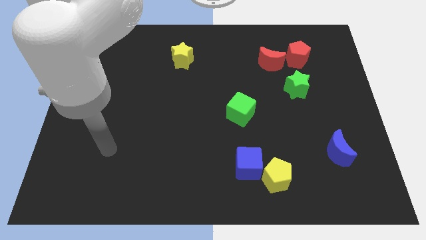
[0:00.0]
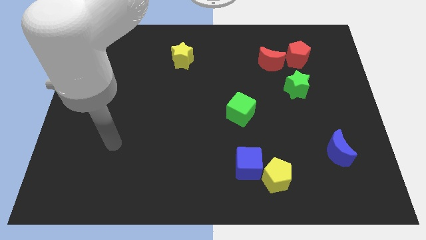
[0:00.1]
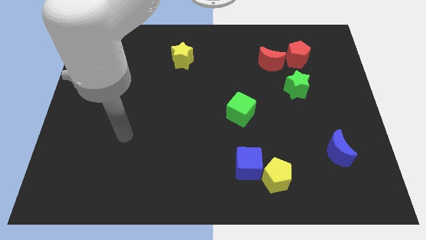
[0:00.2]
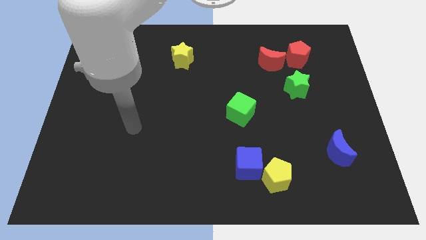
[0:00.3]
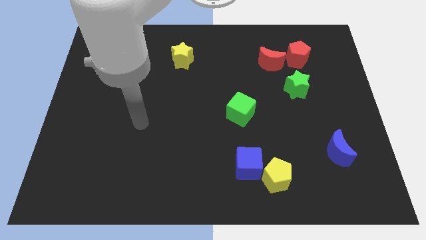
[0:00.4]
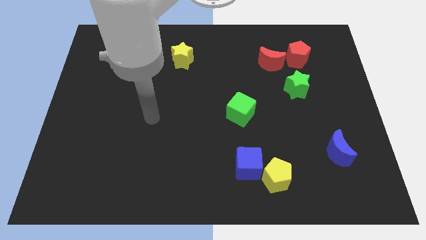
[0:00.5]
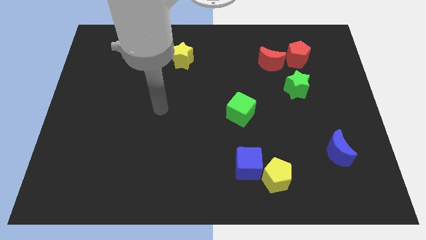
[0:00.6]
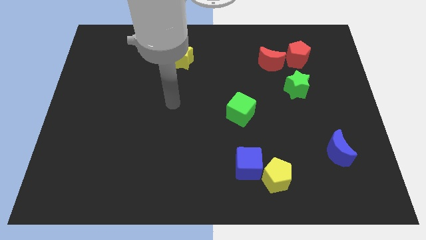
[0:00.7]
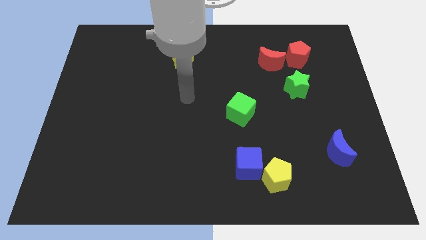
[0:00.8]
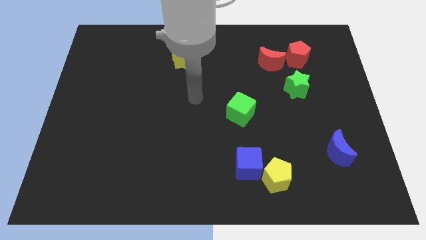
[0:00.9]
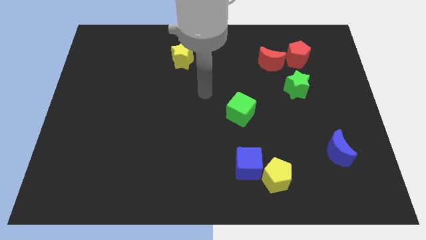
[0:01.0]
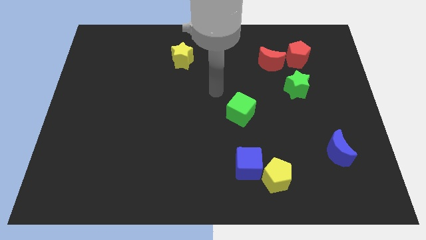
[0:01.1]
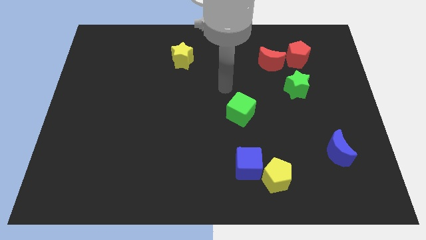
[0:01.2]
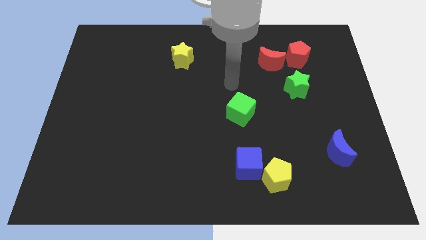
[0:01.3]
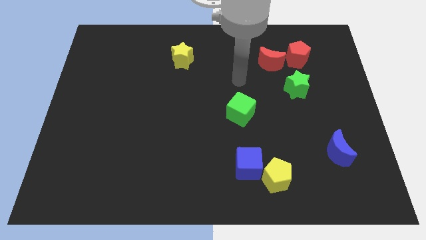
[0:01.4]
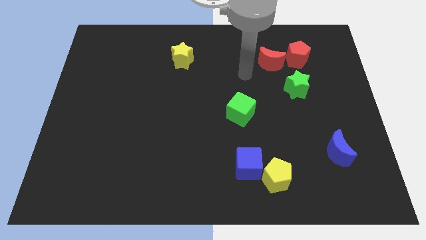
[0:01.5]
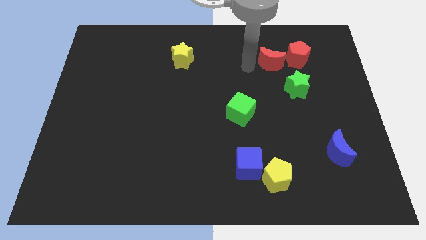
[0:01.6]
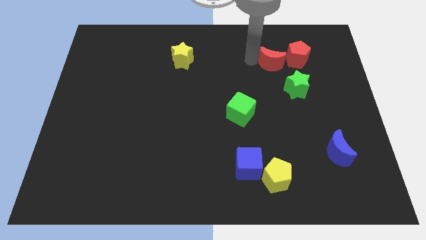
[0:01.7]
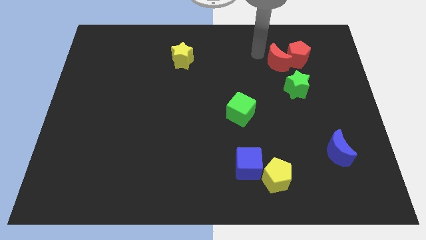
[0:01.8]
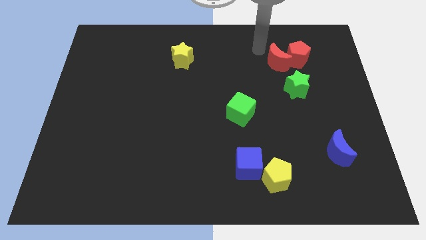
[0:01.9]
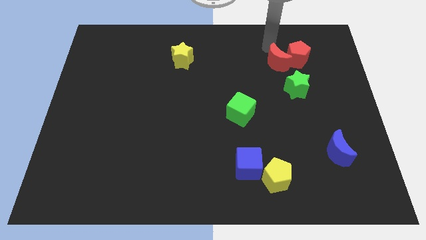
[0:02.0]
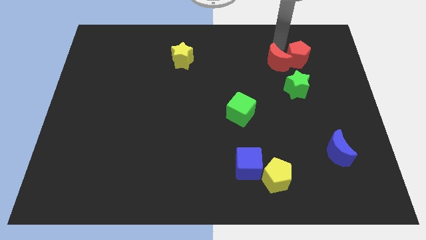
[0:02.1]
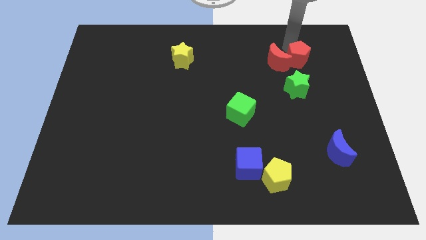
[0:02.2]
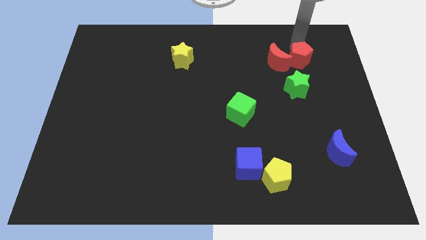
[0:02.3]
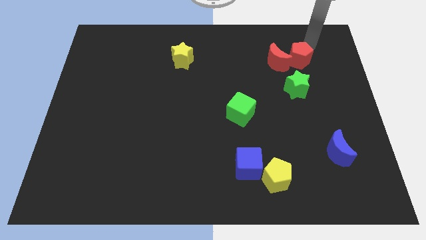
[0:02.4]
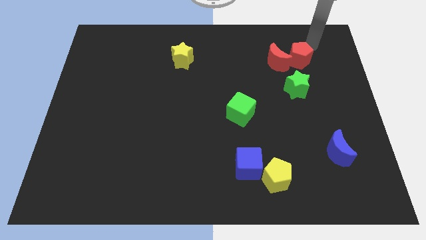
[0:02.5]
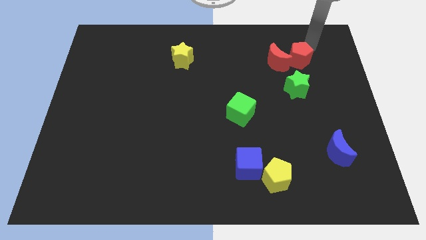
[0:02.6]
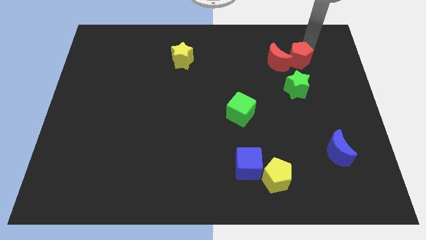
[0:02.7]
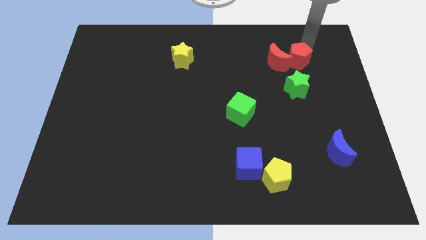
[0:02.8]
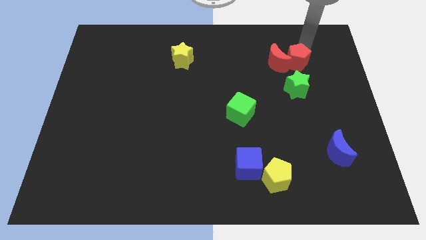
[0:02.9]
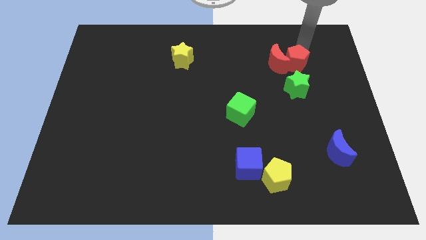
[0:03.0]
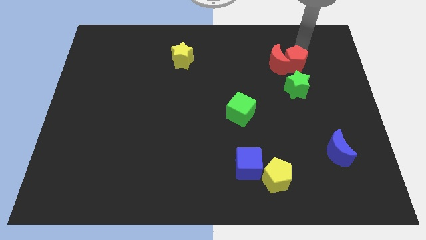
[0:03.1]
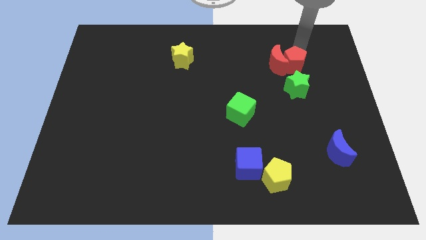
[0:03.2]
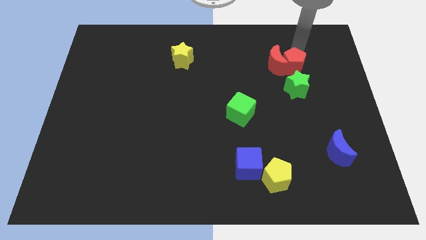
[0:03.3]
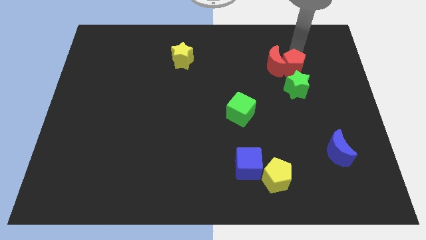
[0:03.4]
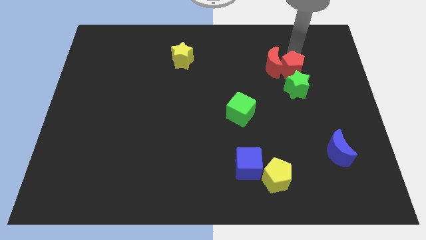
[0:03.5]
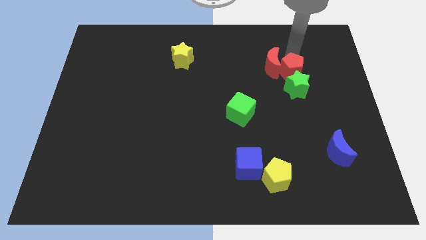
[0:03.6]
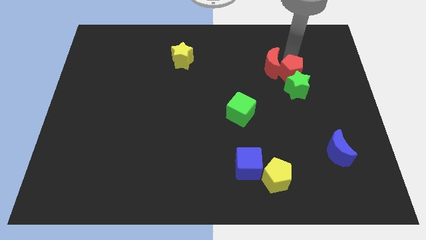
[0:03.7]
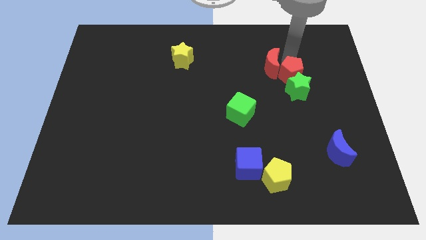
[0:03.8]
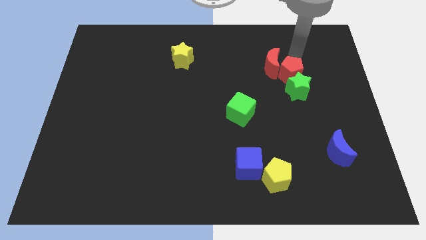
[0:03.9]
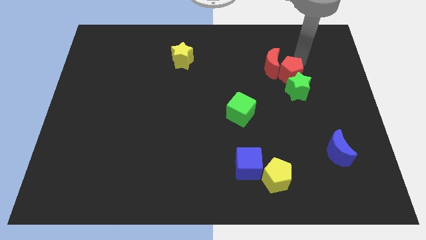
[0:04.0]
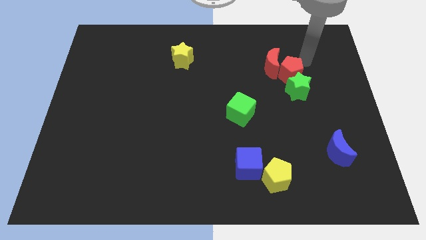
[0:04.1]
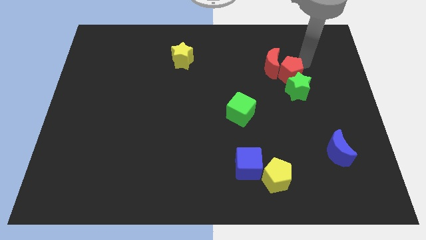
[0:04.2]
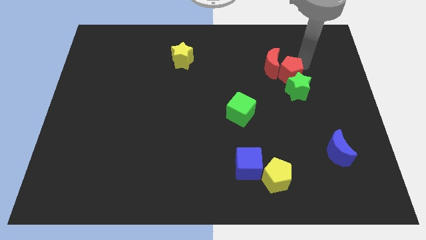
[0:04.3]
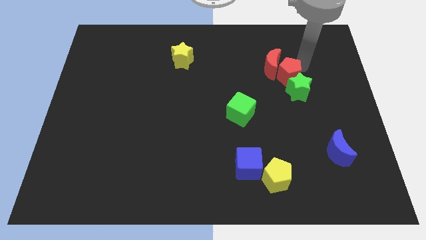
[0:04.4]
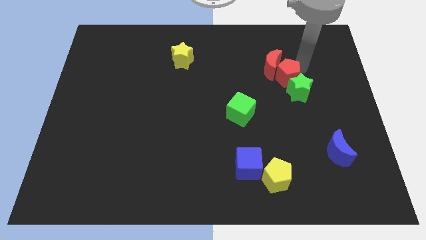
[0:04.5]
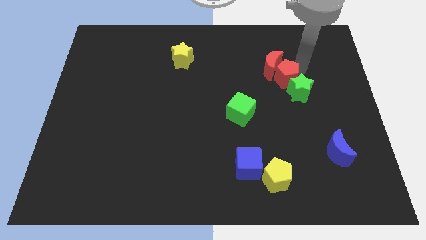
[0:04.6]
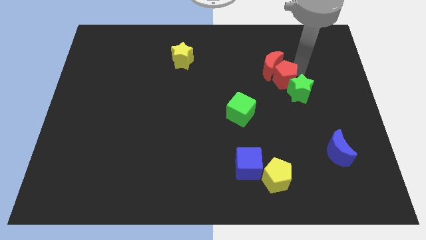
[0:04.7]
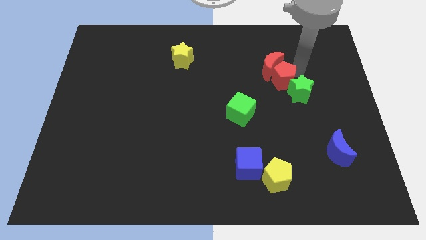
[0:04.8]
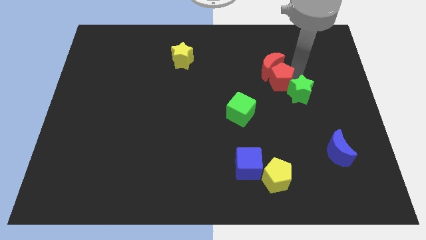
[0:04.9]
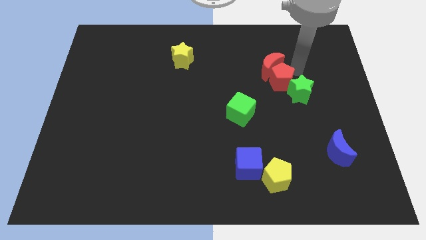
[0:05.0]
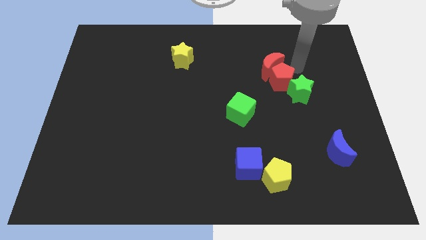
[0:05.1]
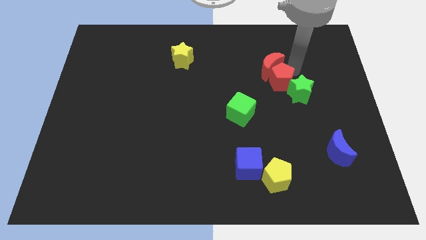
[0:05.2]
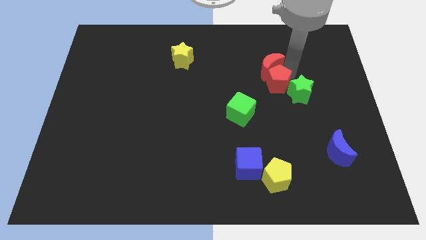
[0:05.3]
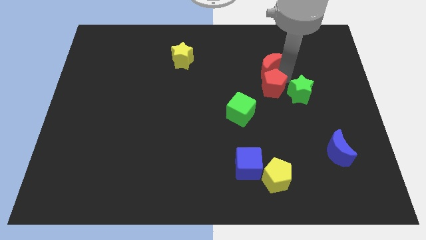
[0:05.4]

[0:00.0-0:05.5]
push the red pentagon to the top right side of the green cube

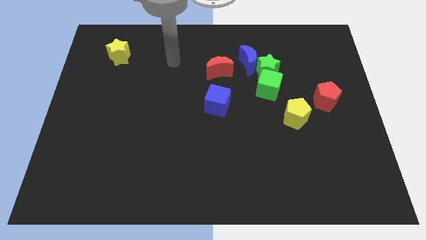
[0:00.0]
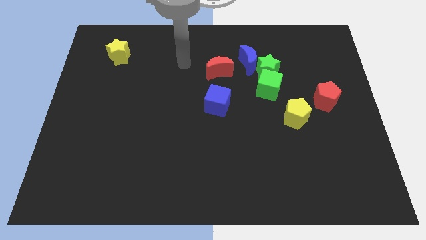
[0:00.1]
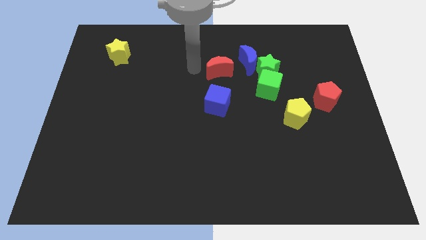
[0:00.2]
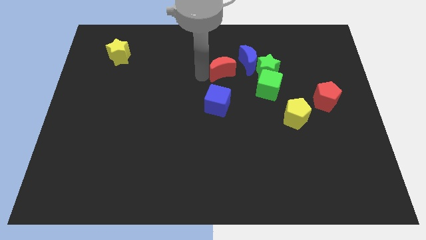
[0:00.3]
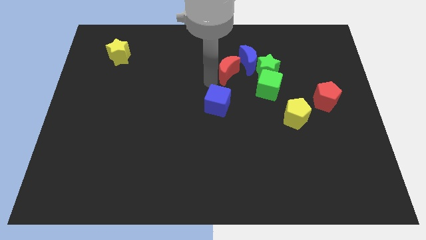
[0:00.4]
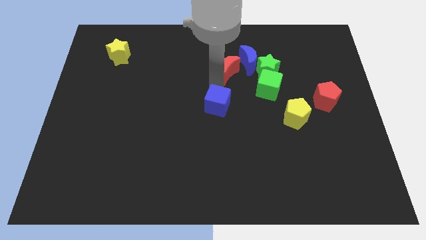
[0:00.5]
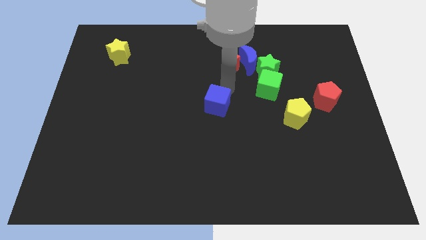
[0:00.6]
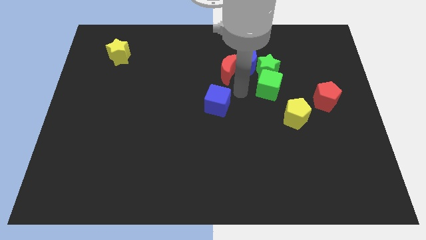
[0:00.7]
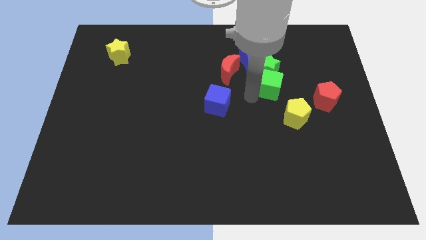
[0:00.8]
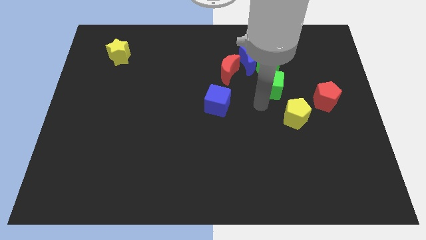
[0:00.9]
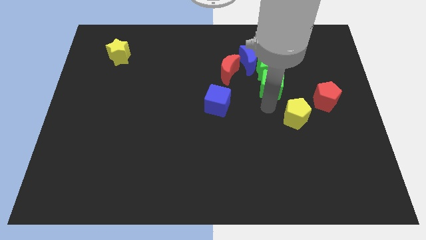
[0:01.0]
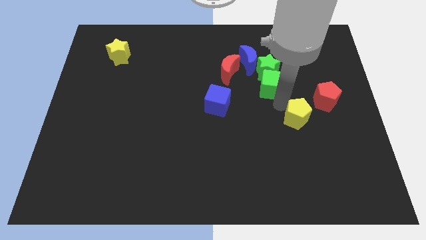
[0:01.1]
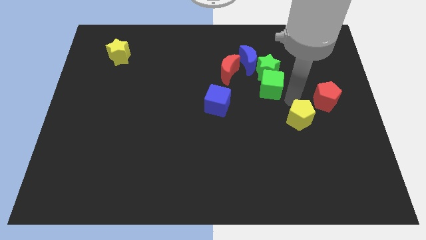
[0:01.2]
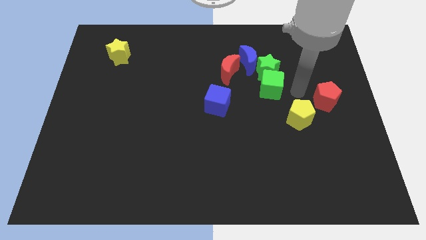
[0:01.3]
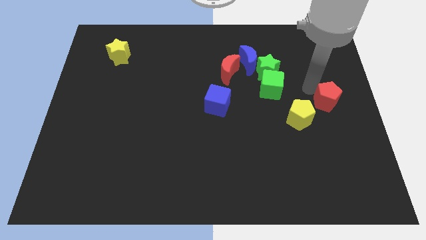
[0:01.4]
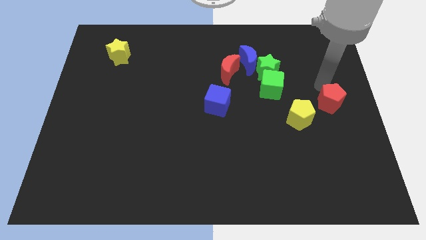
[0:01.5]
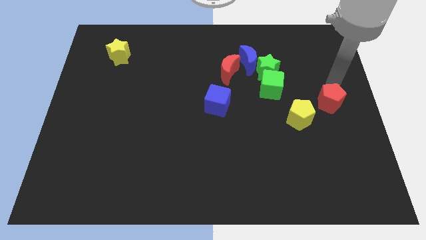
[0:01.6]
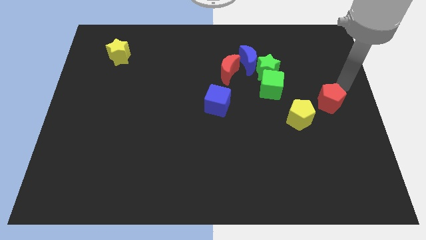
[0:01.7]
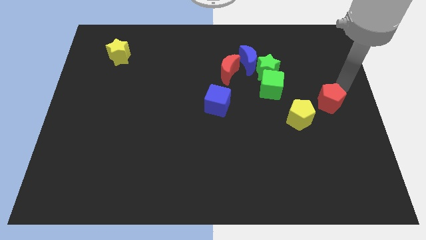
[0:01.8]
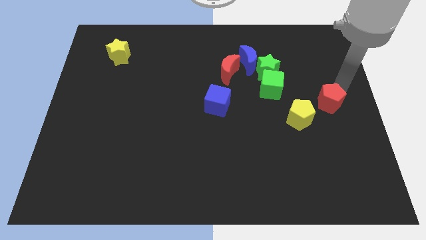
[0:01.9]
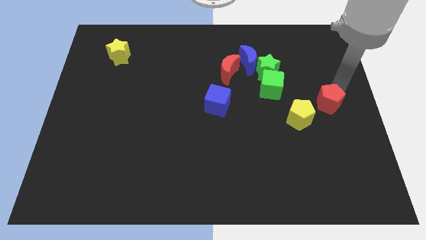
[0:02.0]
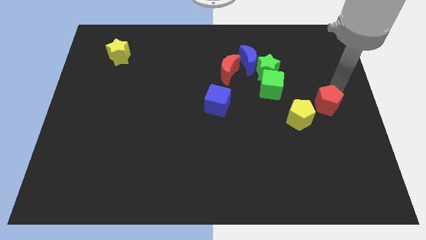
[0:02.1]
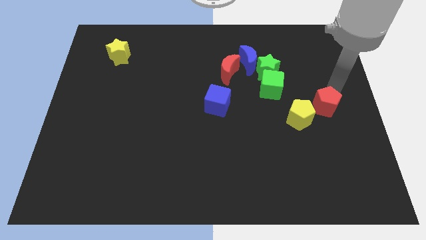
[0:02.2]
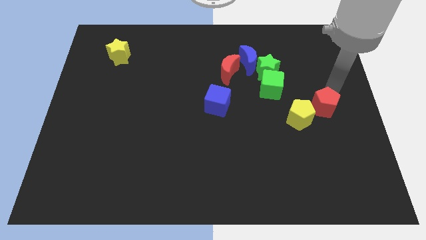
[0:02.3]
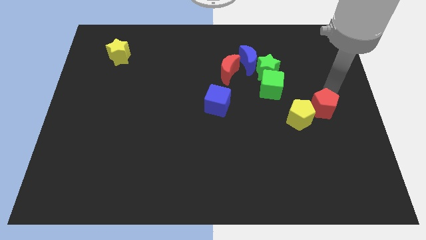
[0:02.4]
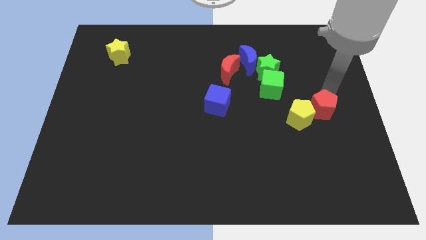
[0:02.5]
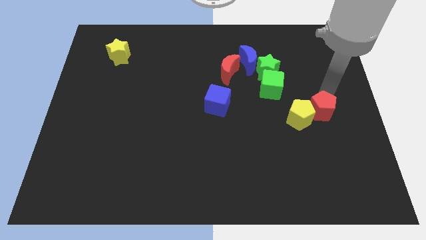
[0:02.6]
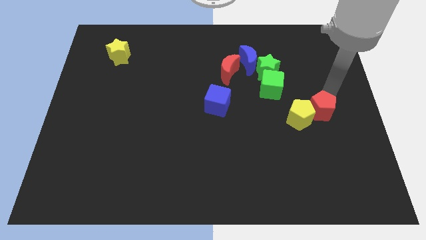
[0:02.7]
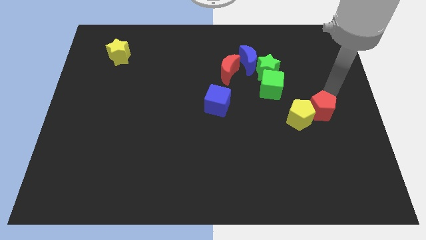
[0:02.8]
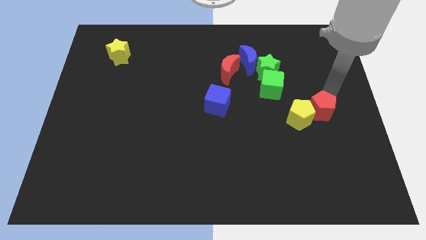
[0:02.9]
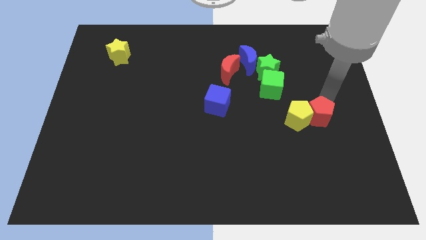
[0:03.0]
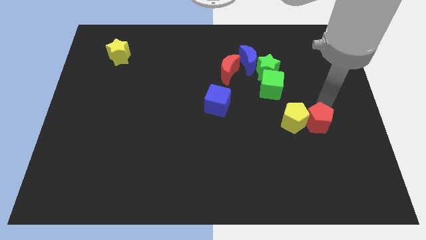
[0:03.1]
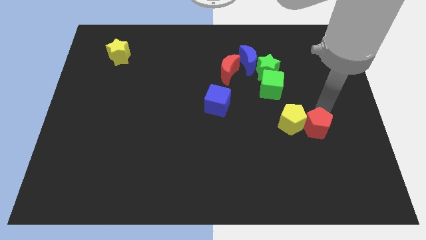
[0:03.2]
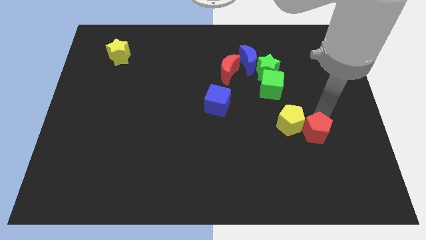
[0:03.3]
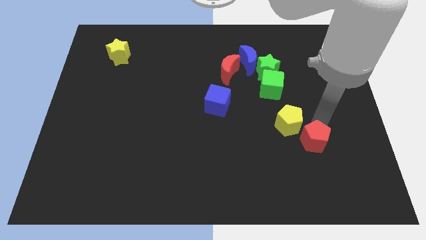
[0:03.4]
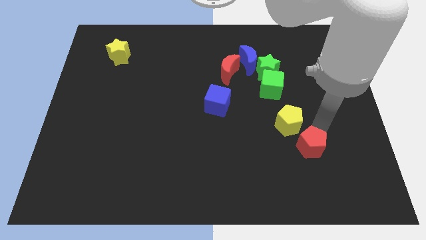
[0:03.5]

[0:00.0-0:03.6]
put the red pentagon to the bottom of the yellow pentagon
